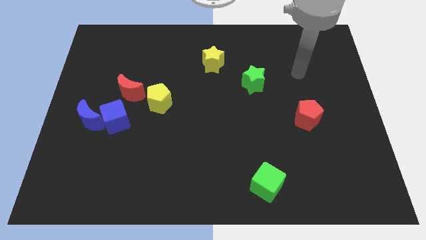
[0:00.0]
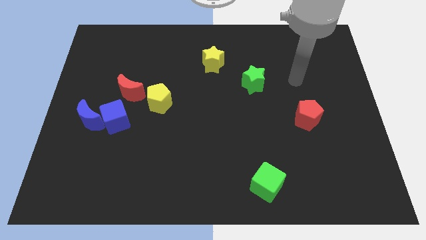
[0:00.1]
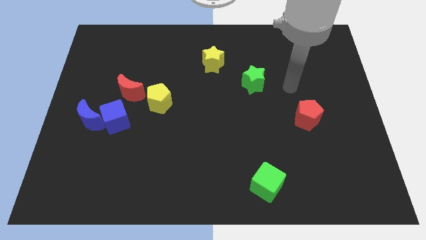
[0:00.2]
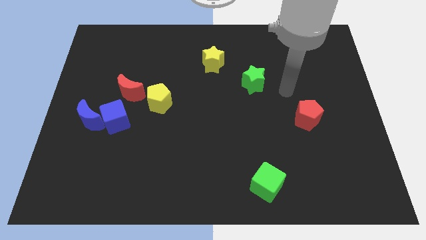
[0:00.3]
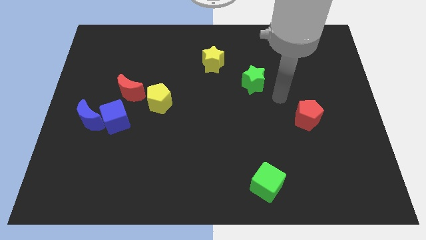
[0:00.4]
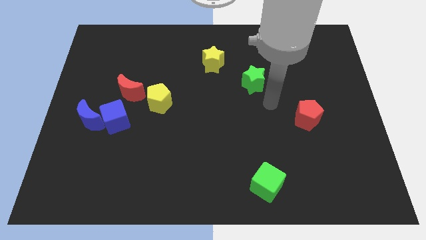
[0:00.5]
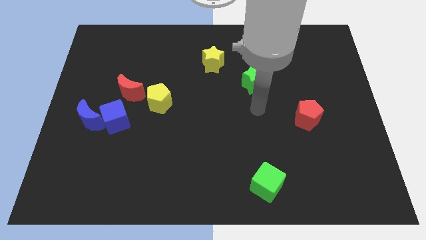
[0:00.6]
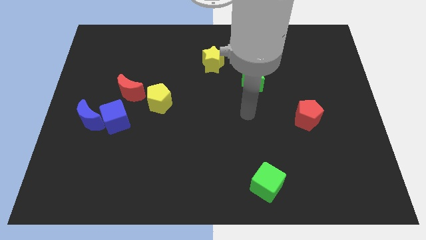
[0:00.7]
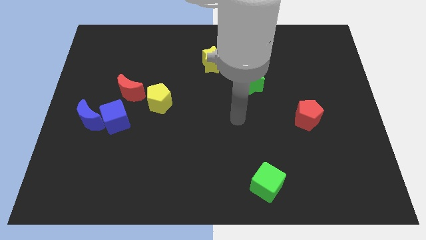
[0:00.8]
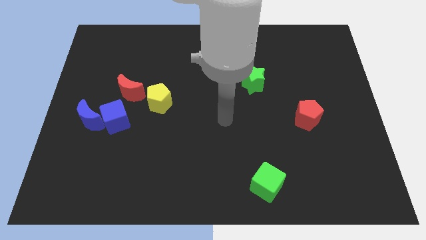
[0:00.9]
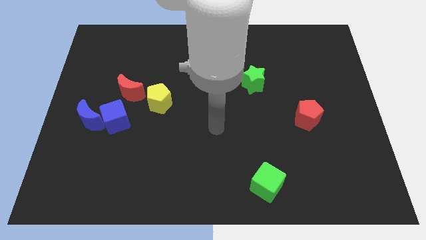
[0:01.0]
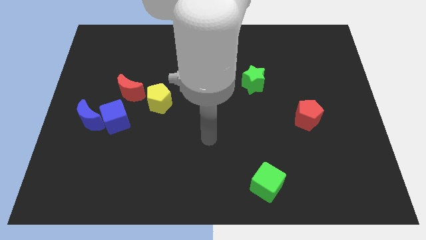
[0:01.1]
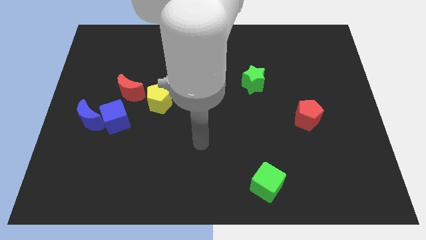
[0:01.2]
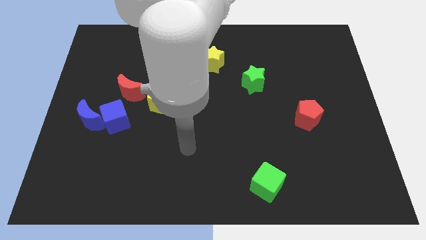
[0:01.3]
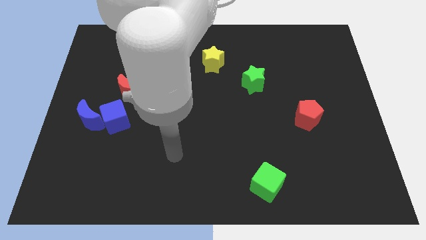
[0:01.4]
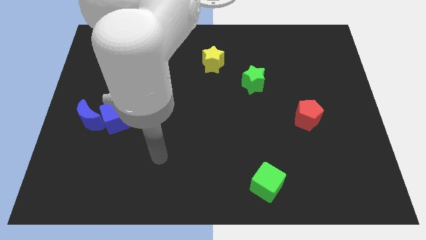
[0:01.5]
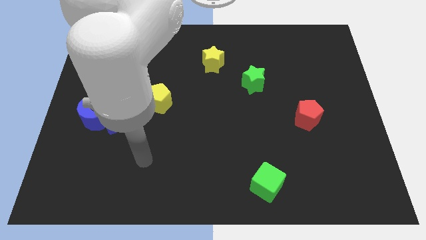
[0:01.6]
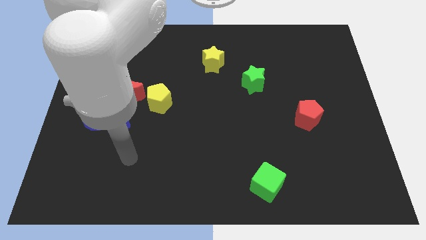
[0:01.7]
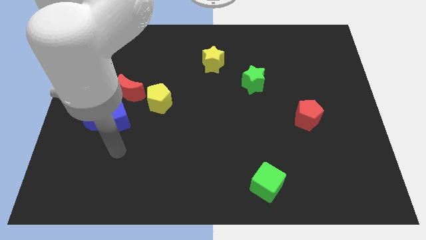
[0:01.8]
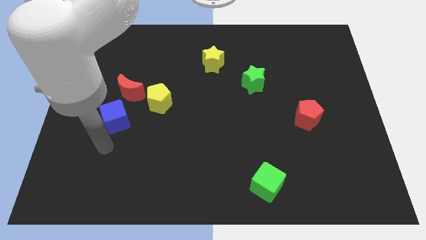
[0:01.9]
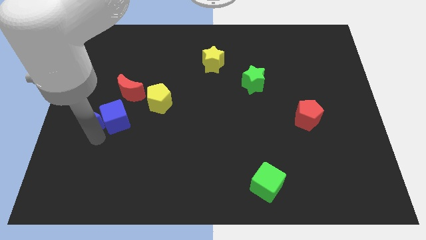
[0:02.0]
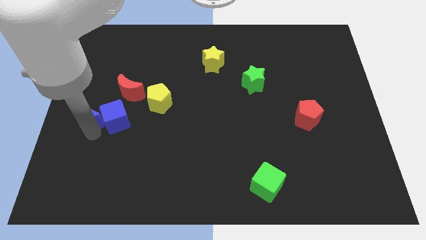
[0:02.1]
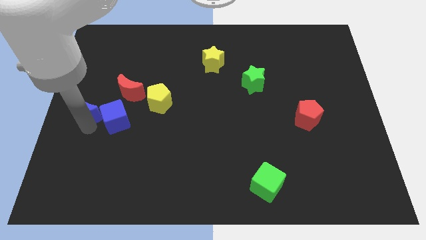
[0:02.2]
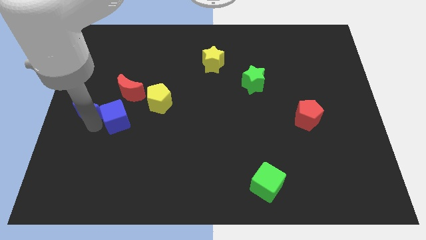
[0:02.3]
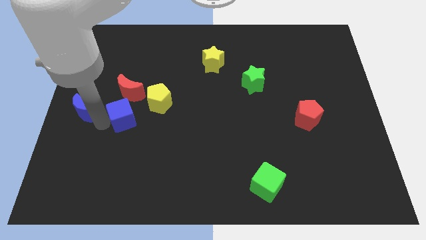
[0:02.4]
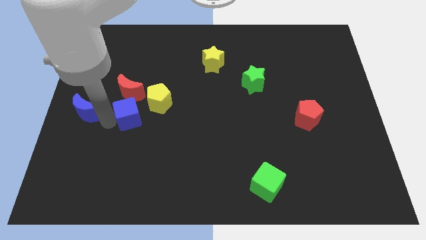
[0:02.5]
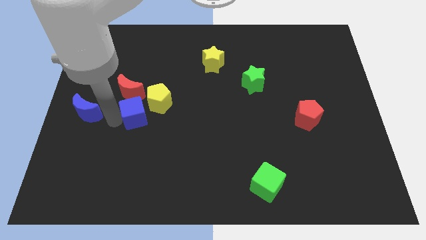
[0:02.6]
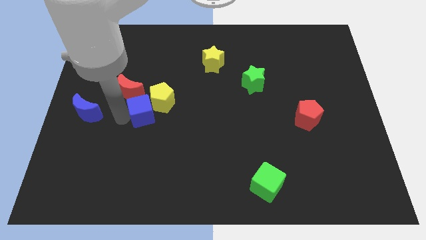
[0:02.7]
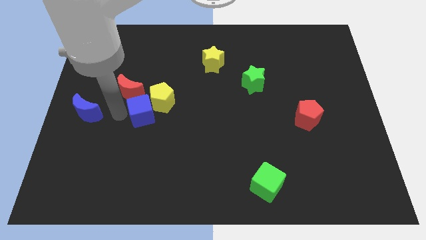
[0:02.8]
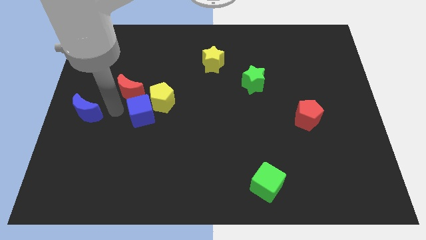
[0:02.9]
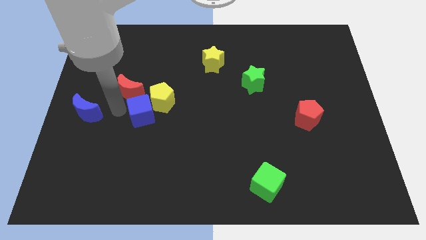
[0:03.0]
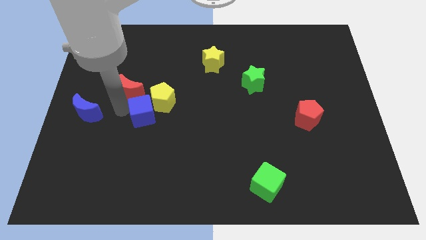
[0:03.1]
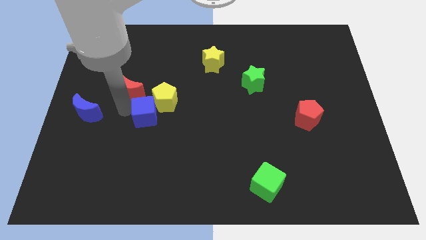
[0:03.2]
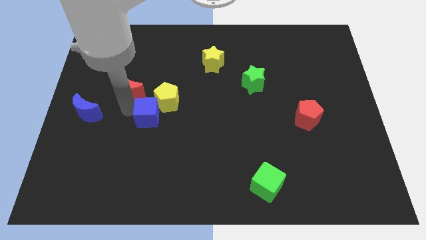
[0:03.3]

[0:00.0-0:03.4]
slightly move the blue cube to the right

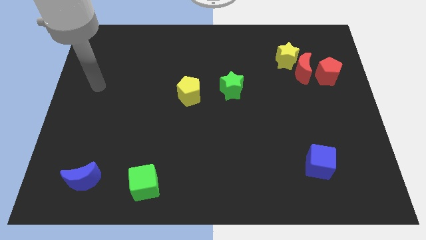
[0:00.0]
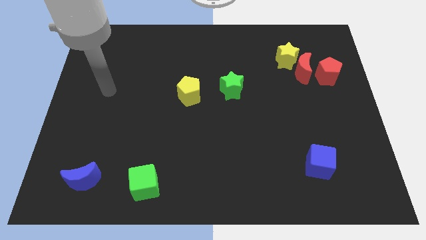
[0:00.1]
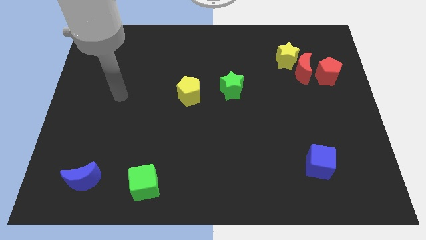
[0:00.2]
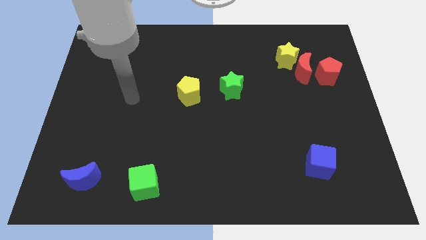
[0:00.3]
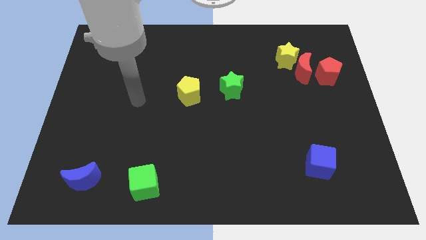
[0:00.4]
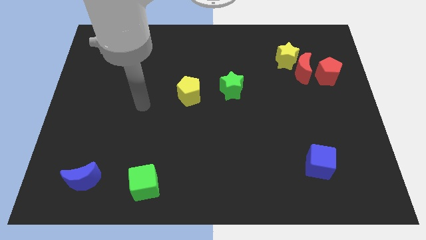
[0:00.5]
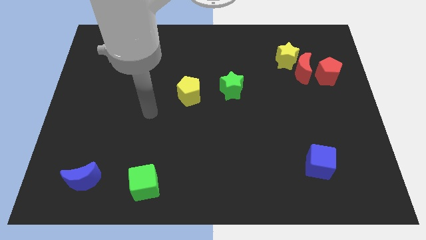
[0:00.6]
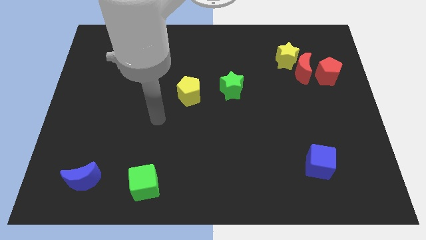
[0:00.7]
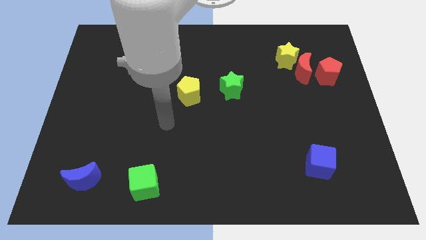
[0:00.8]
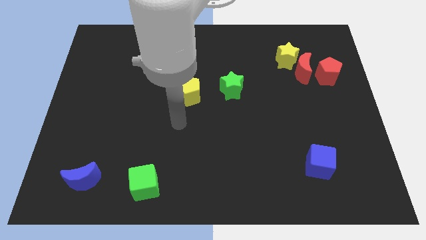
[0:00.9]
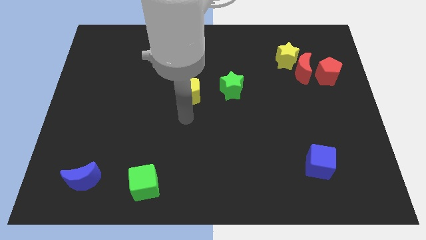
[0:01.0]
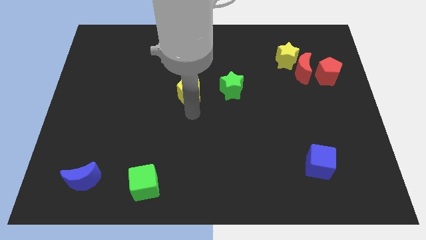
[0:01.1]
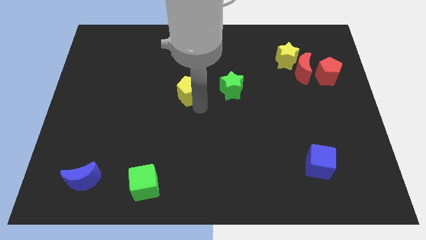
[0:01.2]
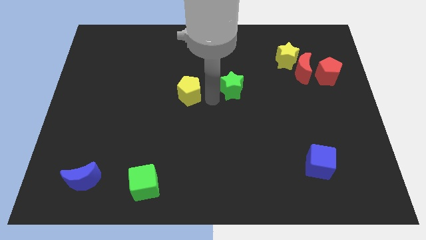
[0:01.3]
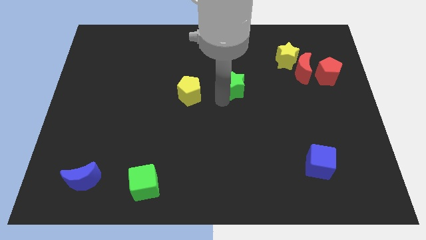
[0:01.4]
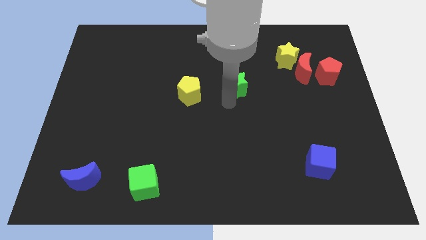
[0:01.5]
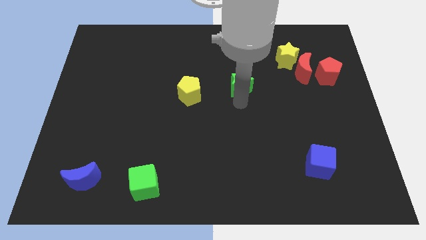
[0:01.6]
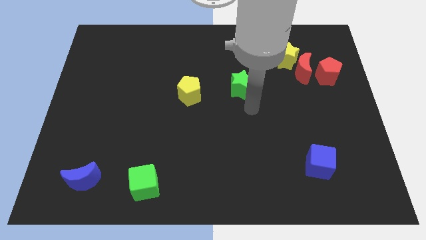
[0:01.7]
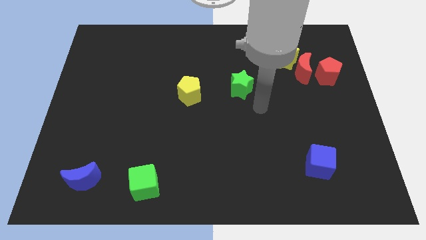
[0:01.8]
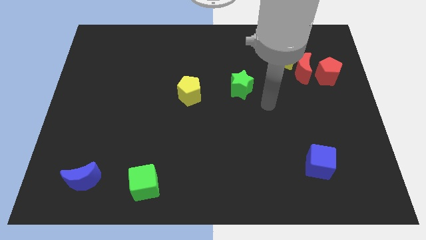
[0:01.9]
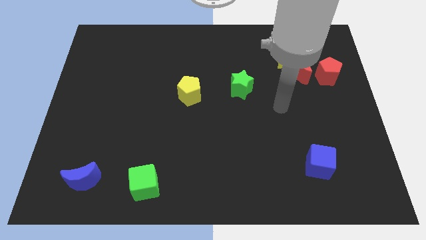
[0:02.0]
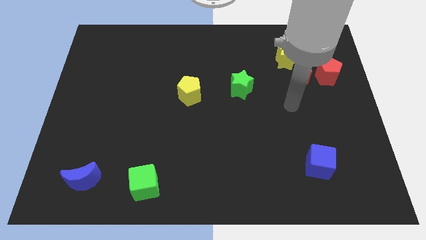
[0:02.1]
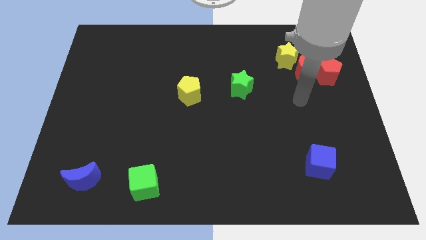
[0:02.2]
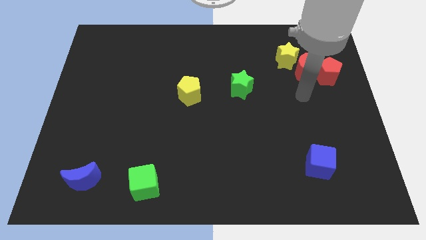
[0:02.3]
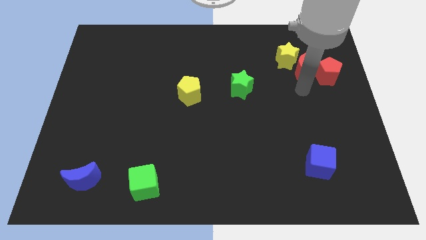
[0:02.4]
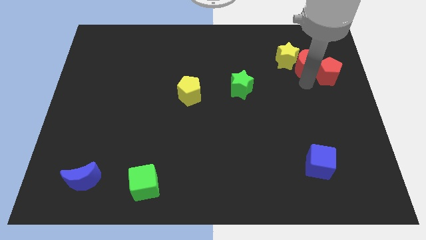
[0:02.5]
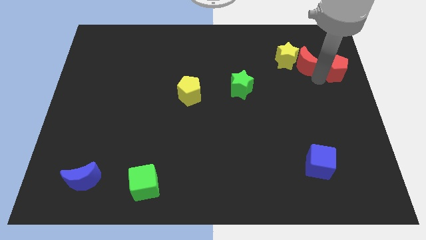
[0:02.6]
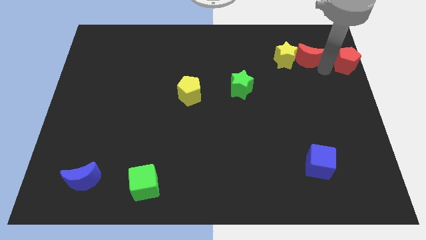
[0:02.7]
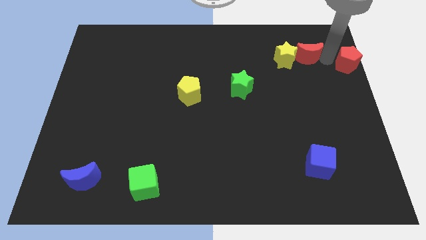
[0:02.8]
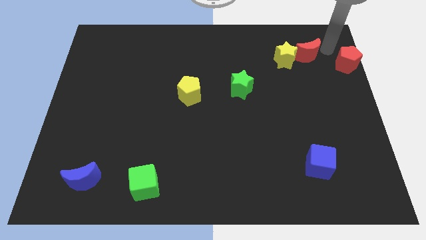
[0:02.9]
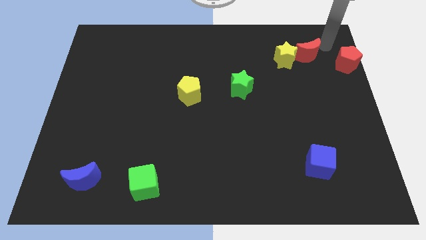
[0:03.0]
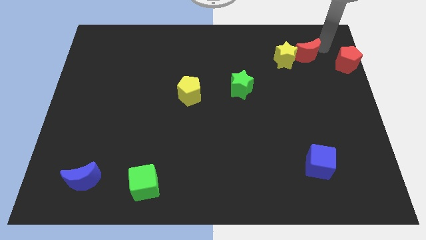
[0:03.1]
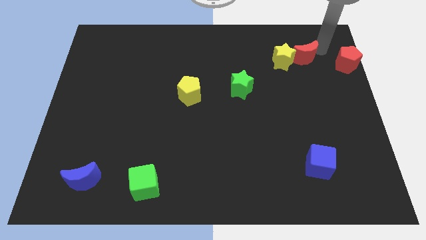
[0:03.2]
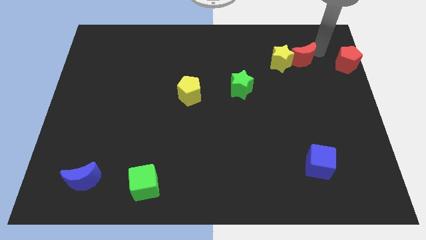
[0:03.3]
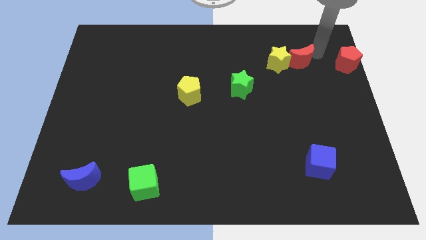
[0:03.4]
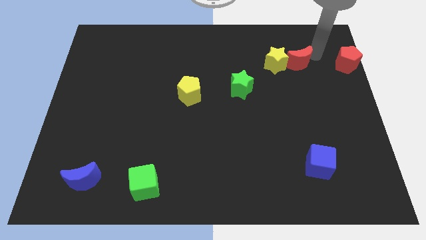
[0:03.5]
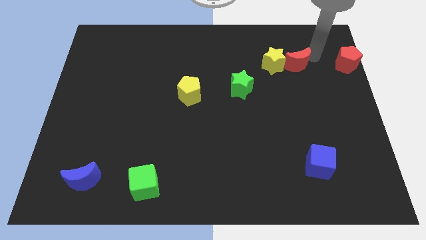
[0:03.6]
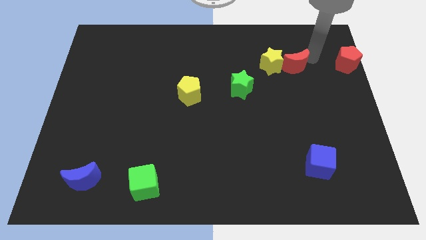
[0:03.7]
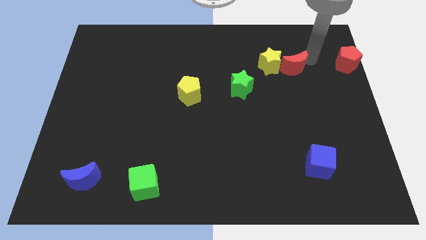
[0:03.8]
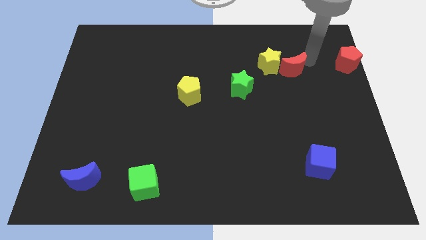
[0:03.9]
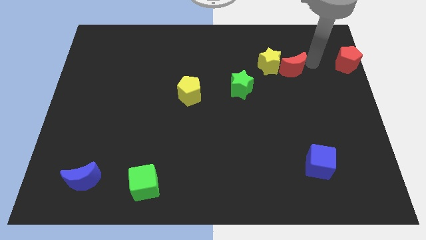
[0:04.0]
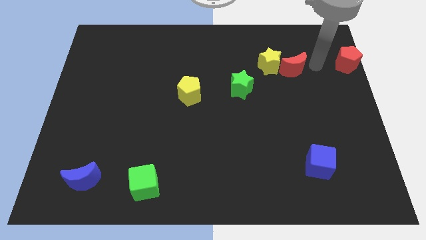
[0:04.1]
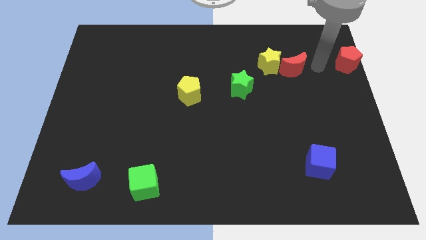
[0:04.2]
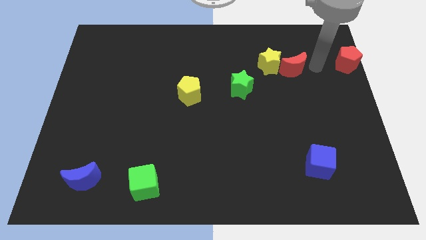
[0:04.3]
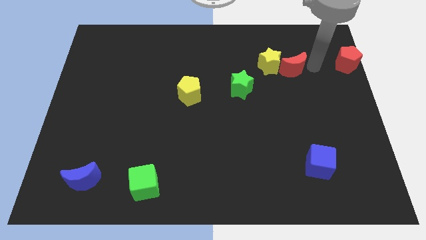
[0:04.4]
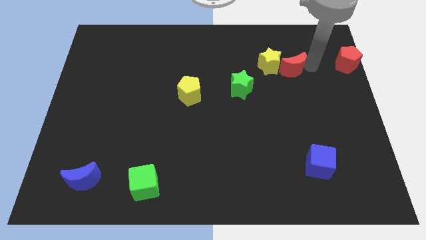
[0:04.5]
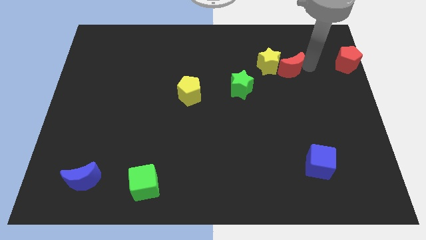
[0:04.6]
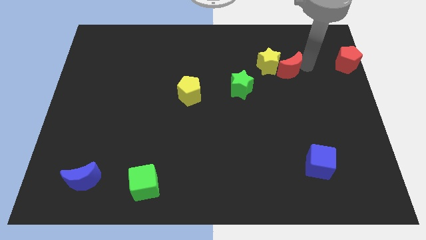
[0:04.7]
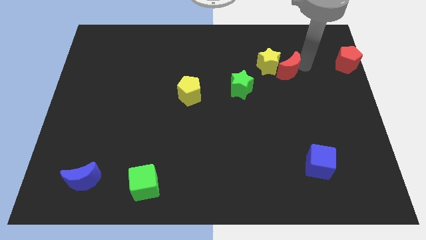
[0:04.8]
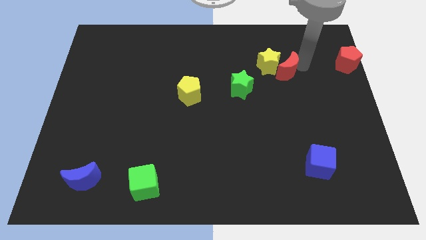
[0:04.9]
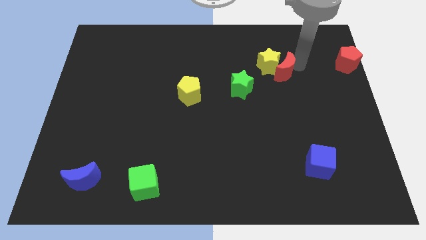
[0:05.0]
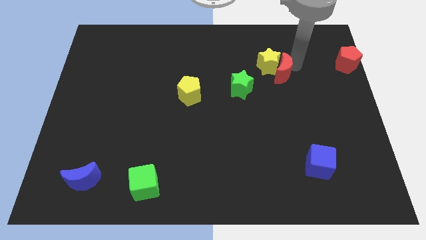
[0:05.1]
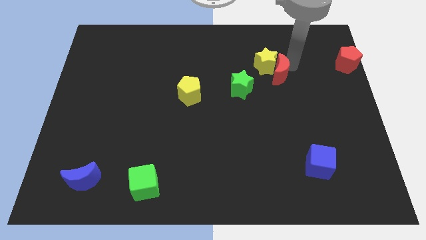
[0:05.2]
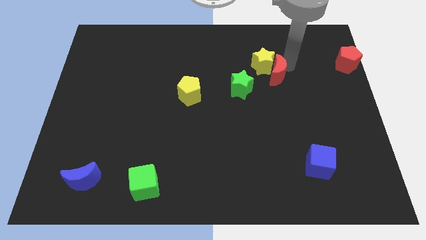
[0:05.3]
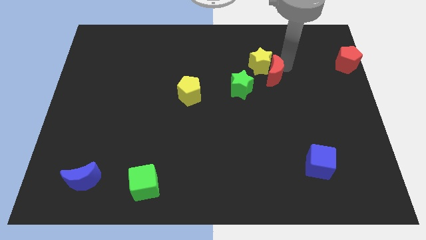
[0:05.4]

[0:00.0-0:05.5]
slightly push the red moon to the left
